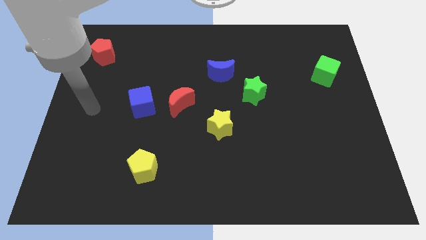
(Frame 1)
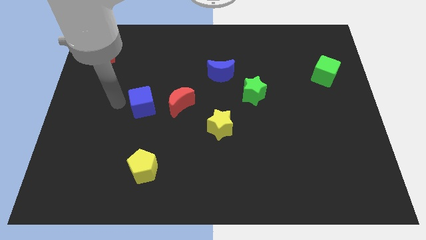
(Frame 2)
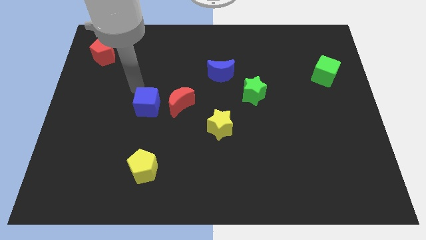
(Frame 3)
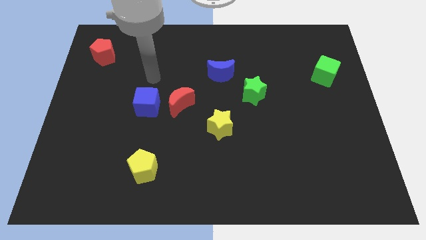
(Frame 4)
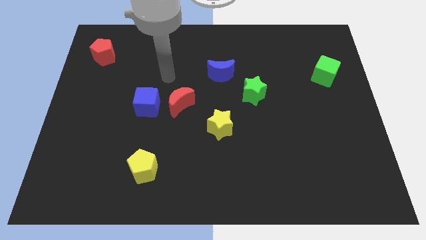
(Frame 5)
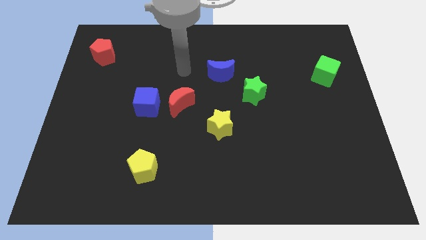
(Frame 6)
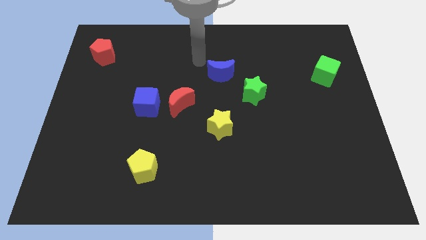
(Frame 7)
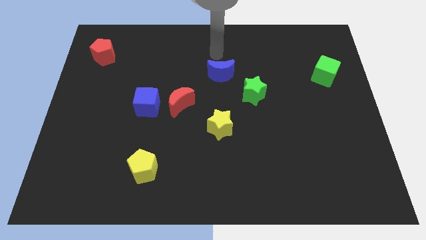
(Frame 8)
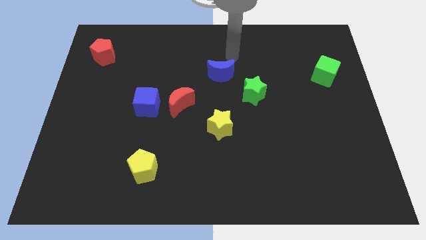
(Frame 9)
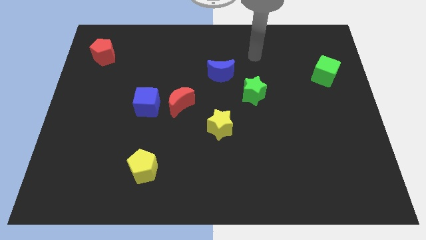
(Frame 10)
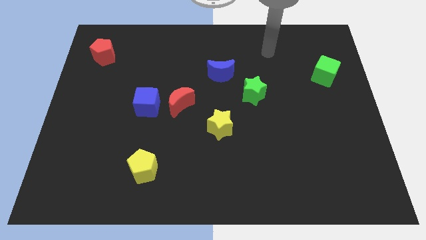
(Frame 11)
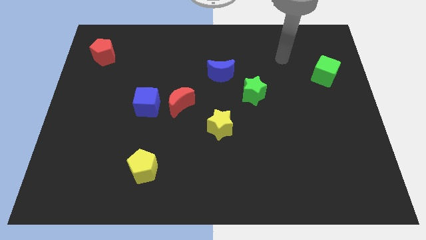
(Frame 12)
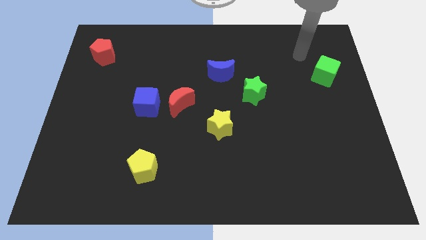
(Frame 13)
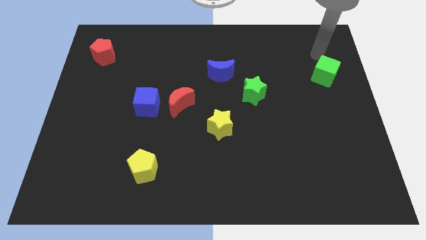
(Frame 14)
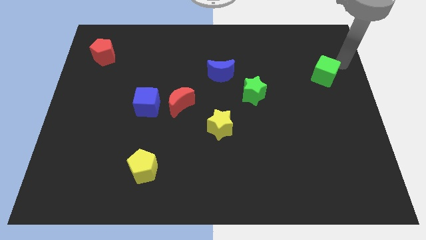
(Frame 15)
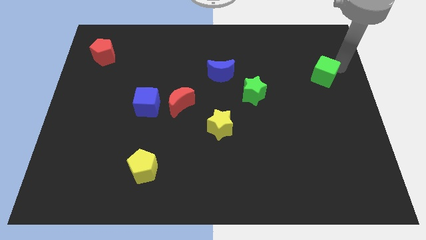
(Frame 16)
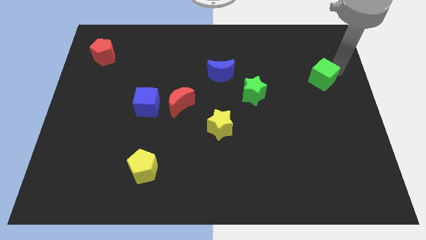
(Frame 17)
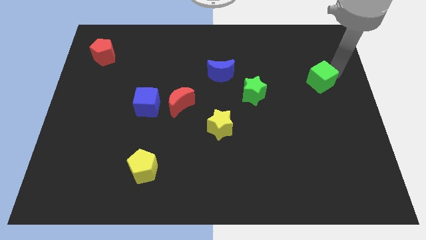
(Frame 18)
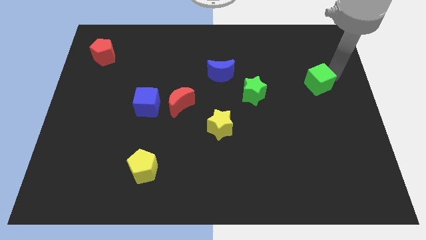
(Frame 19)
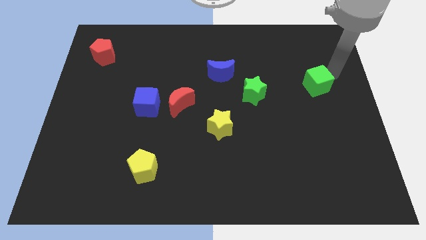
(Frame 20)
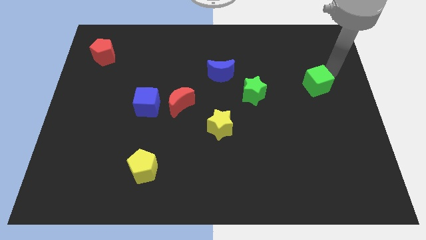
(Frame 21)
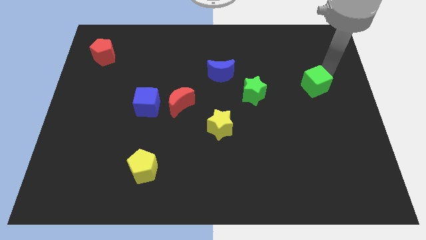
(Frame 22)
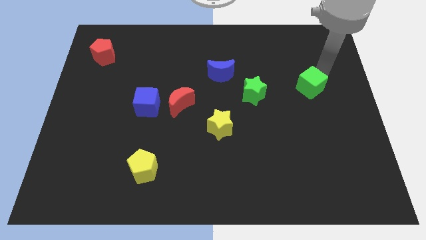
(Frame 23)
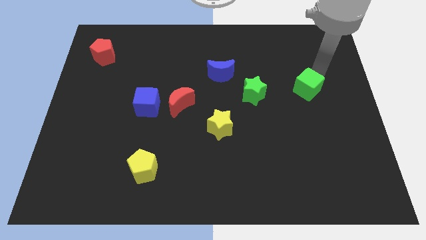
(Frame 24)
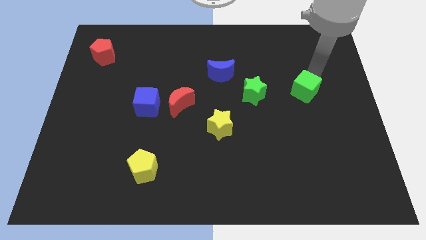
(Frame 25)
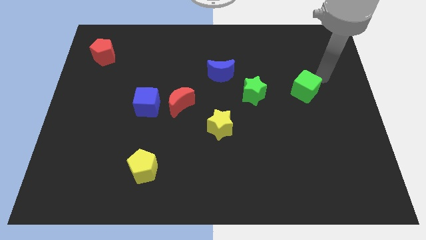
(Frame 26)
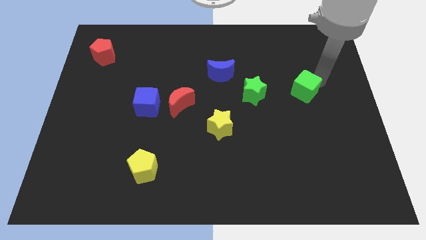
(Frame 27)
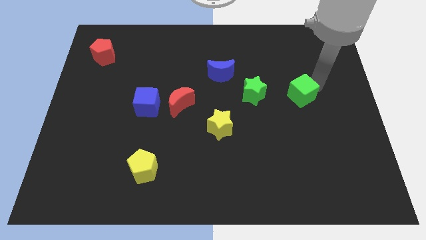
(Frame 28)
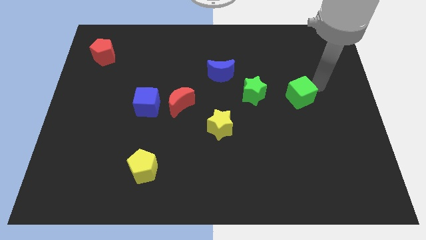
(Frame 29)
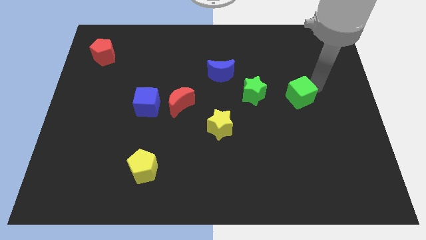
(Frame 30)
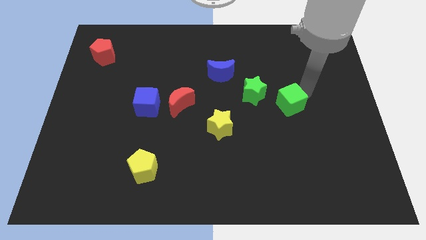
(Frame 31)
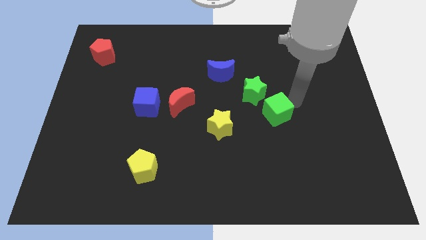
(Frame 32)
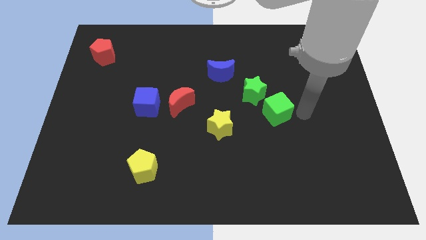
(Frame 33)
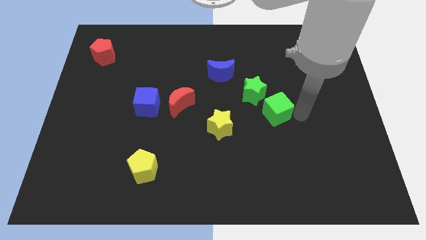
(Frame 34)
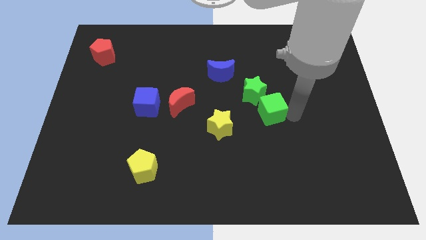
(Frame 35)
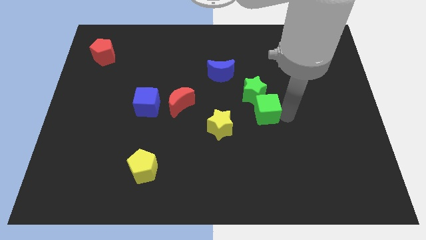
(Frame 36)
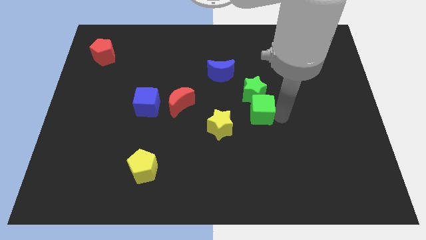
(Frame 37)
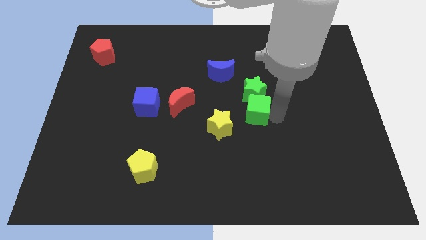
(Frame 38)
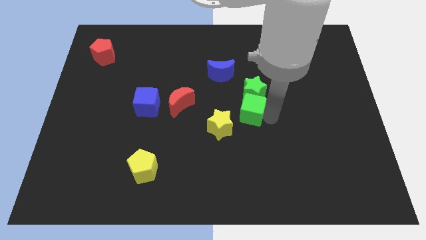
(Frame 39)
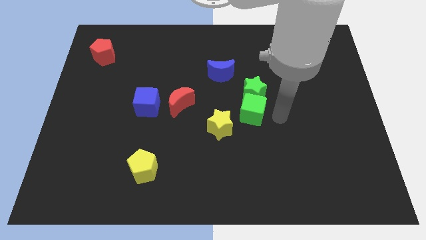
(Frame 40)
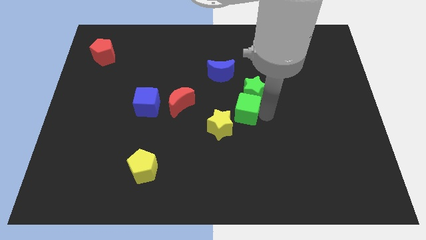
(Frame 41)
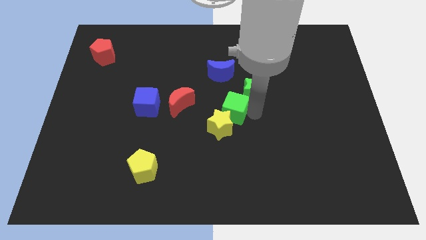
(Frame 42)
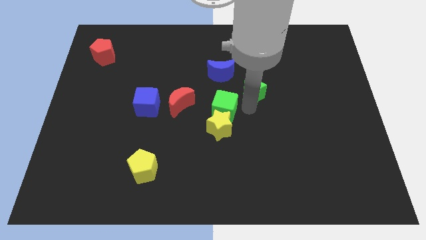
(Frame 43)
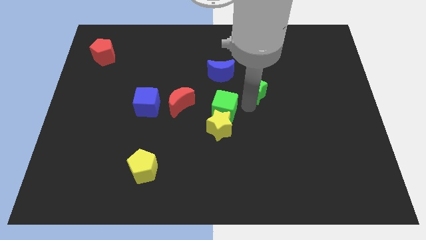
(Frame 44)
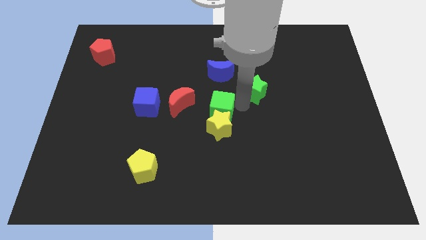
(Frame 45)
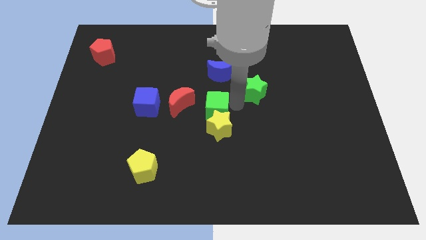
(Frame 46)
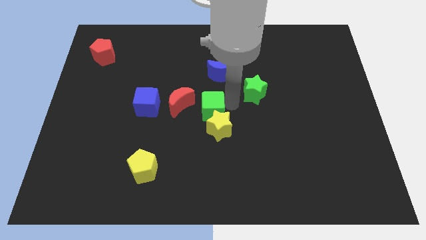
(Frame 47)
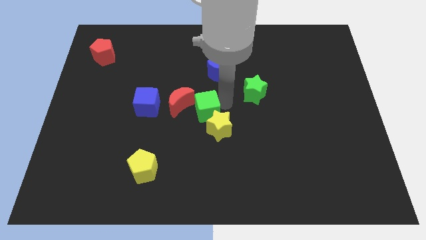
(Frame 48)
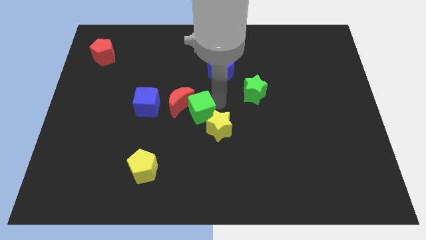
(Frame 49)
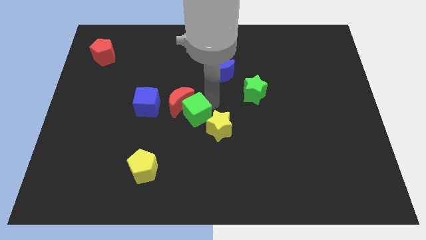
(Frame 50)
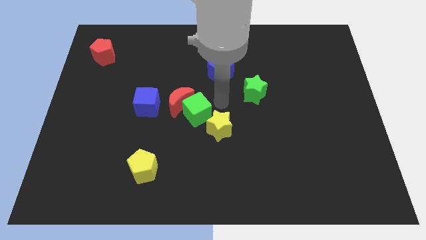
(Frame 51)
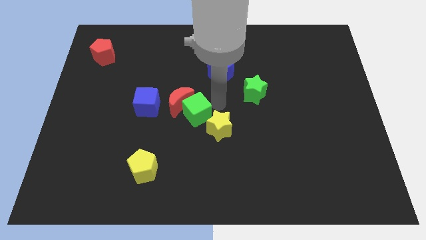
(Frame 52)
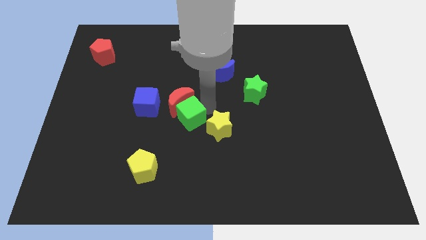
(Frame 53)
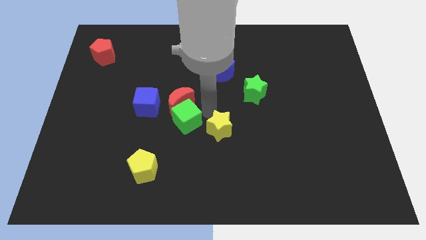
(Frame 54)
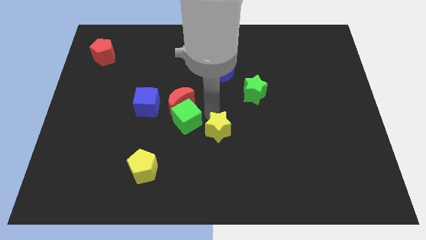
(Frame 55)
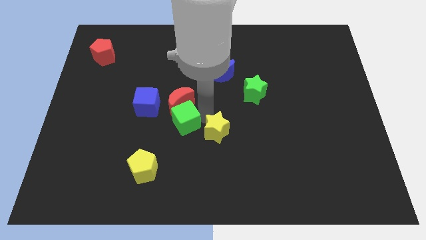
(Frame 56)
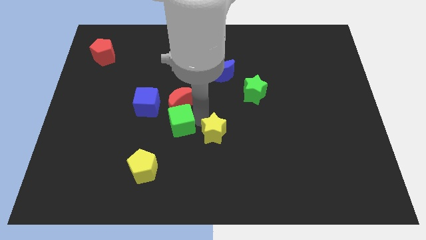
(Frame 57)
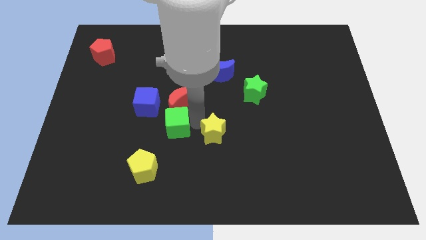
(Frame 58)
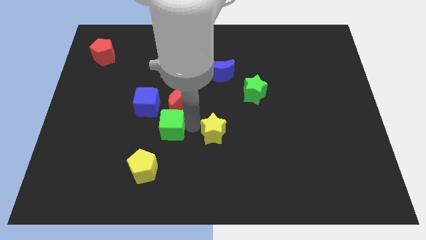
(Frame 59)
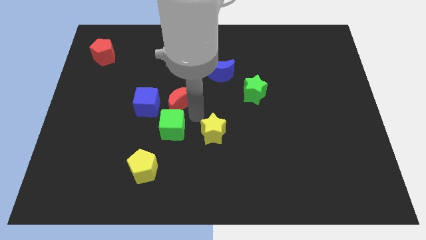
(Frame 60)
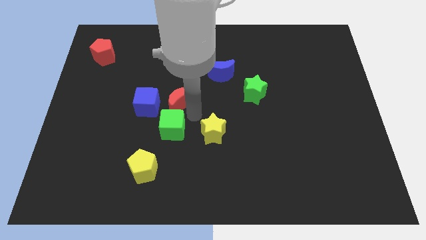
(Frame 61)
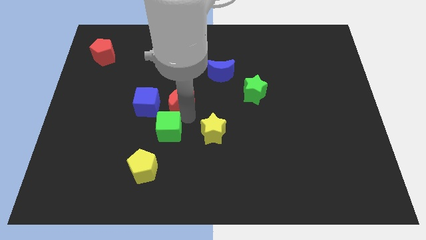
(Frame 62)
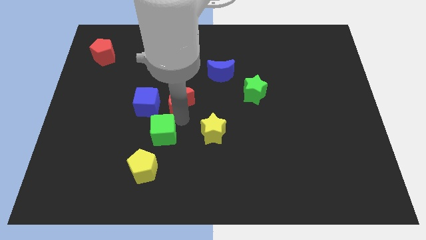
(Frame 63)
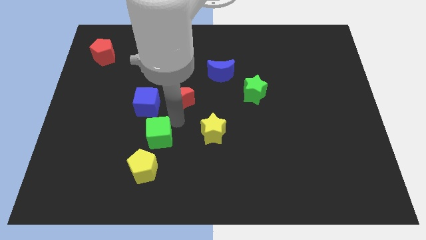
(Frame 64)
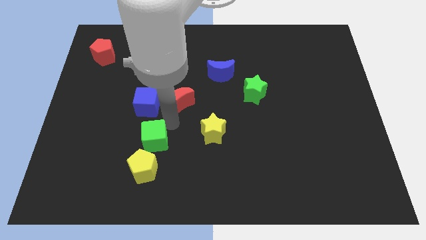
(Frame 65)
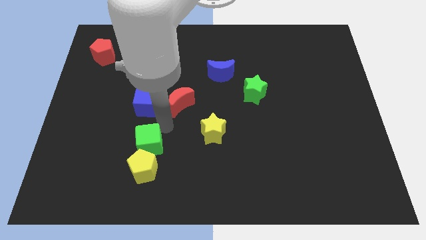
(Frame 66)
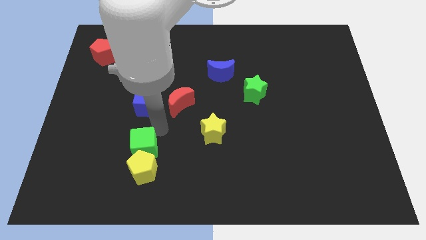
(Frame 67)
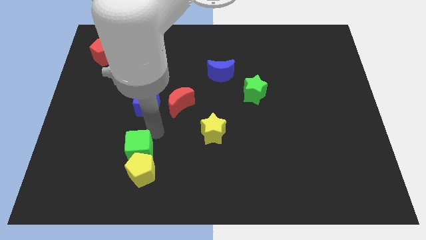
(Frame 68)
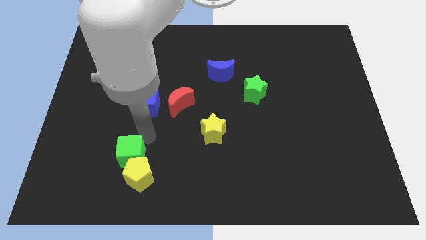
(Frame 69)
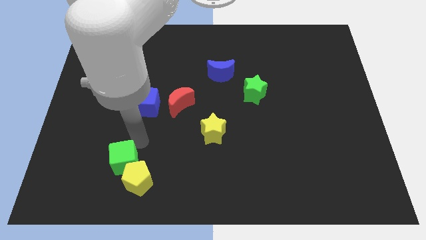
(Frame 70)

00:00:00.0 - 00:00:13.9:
put the green cube just left of the yellow pentagon
